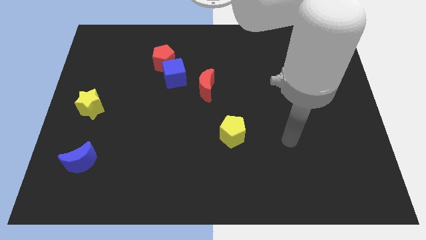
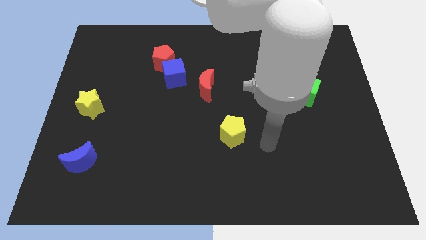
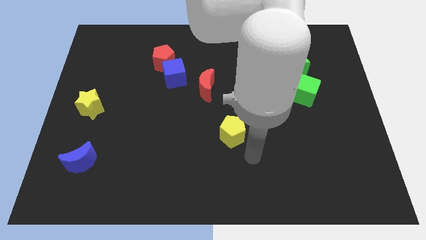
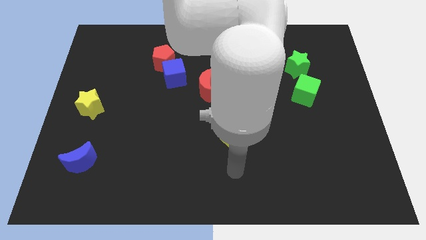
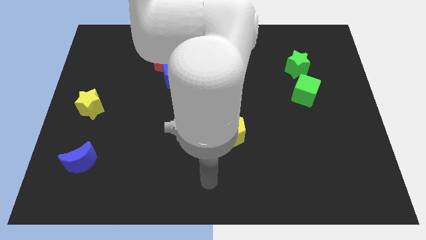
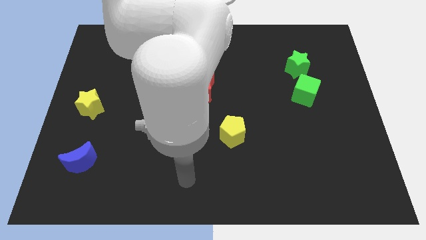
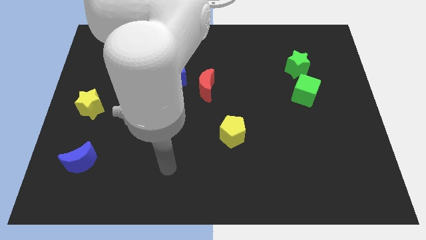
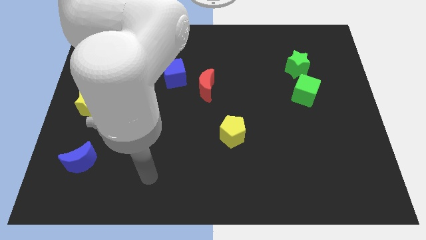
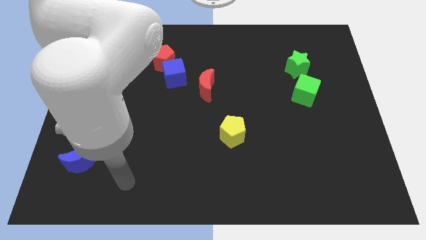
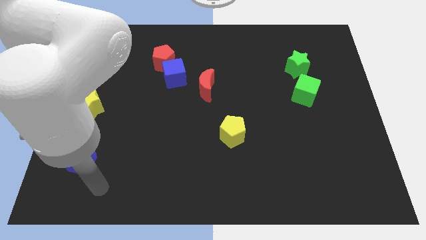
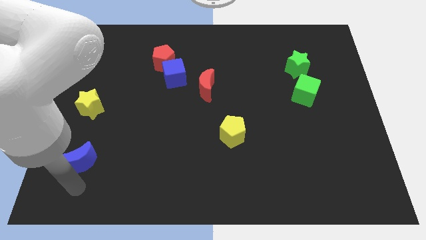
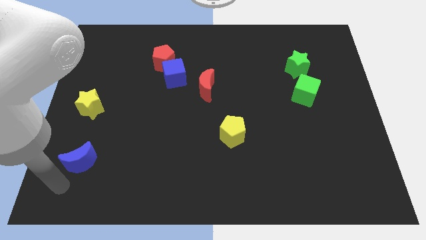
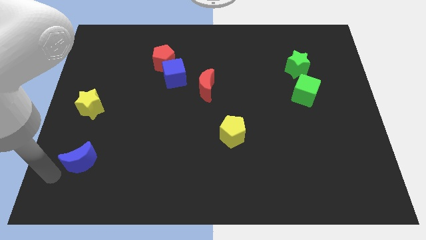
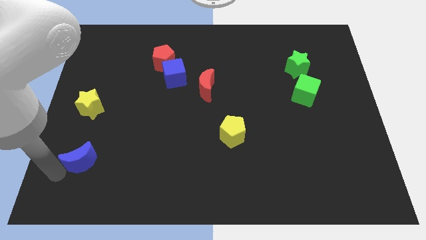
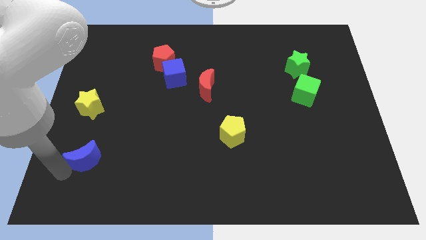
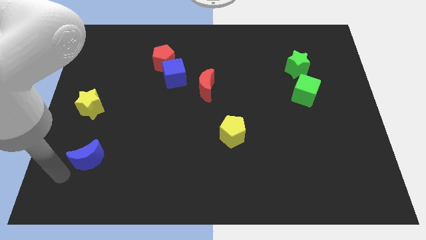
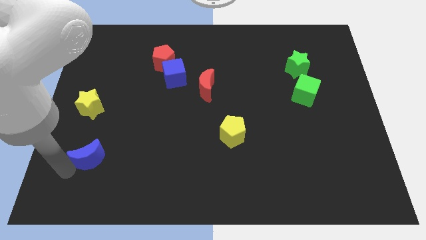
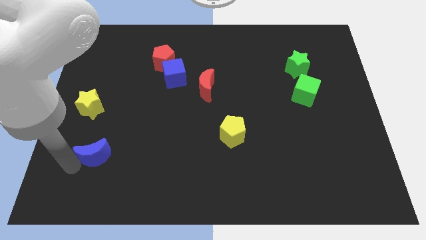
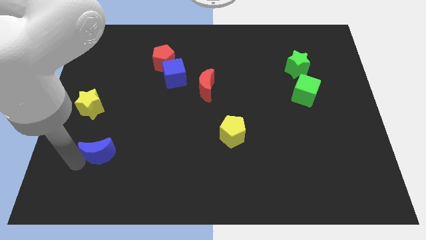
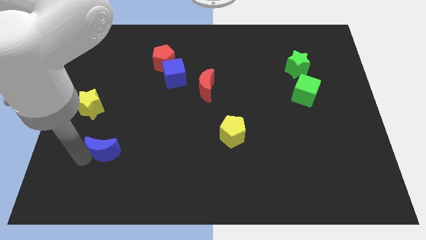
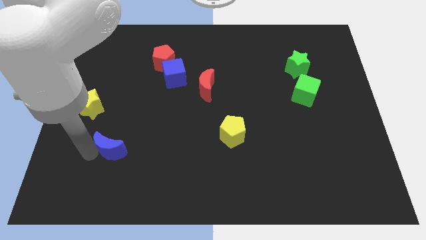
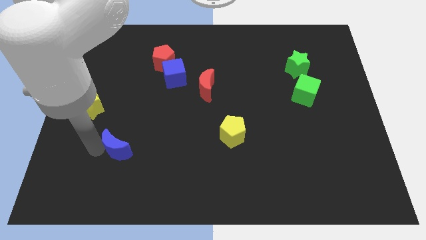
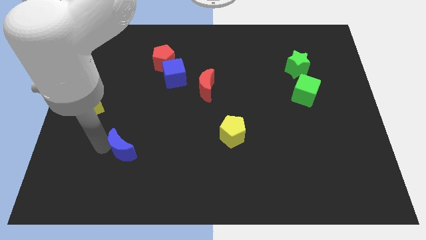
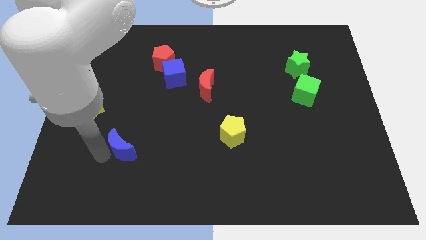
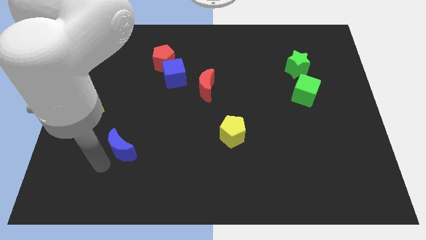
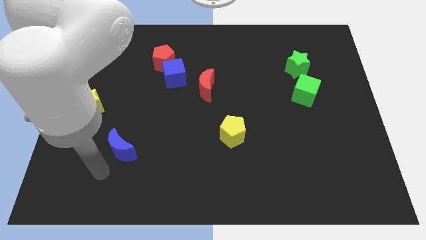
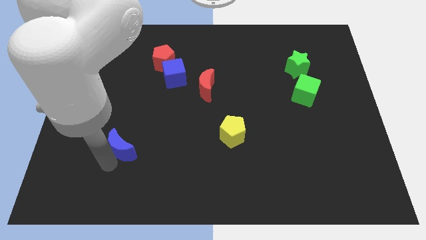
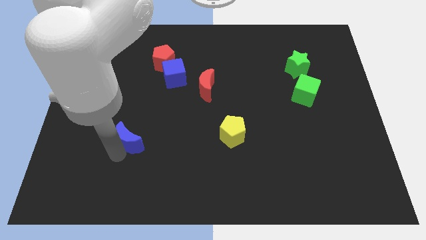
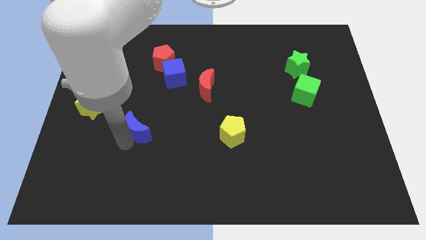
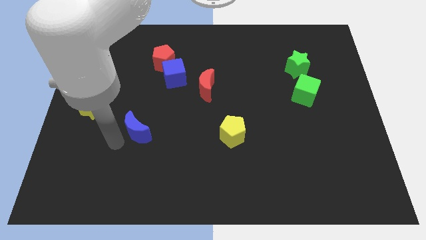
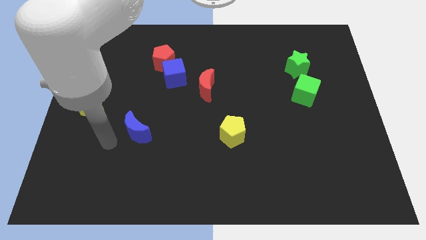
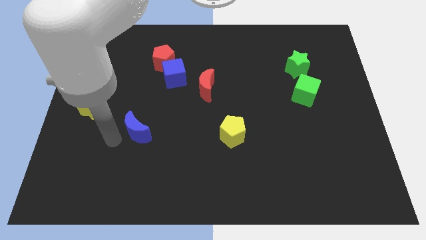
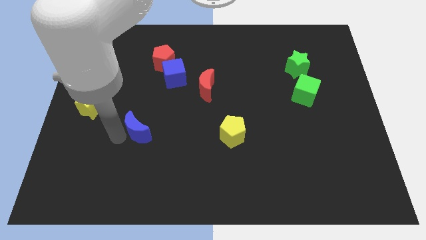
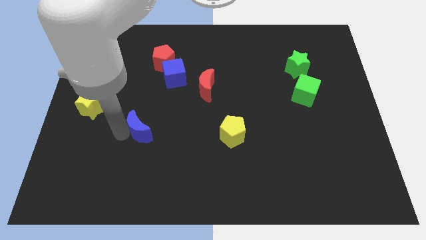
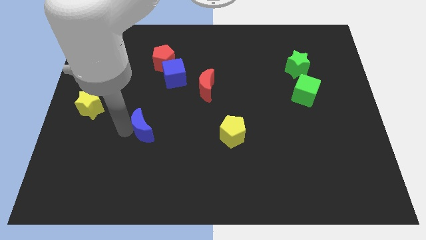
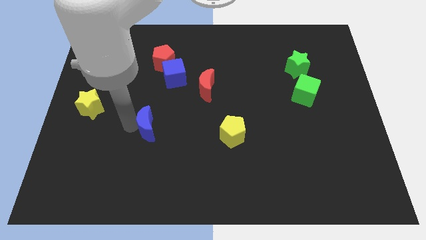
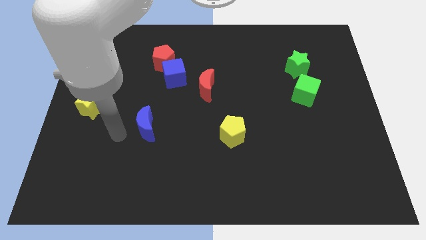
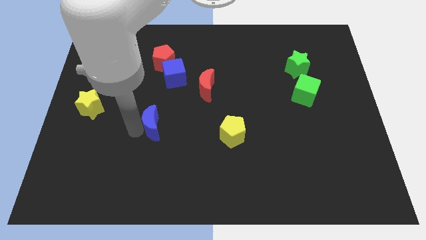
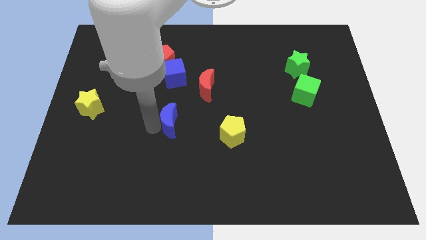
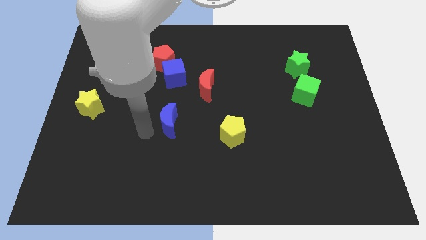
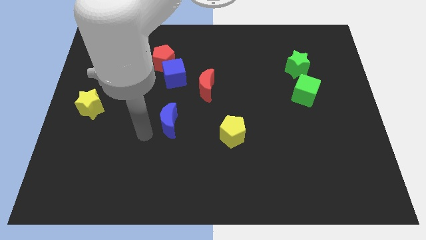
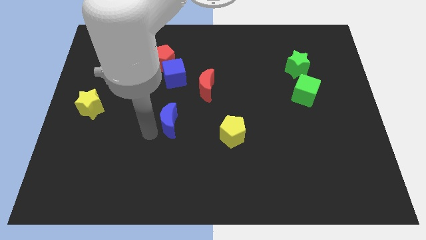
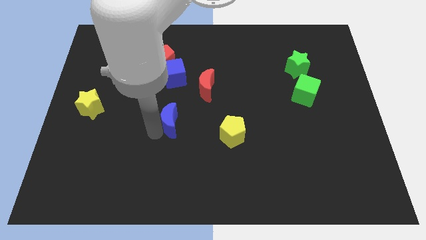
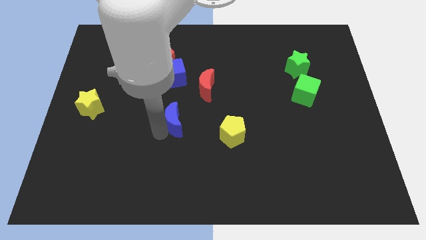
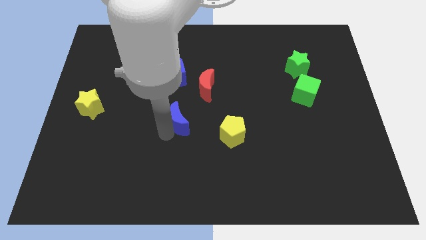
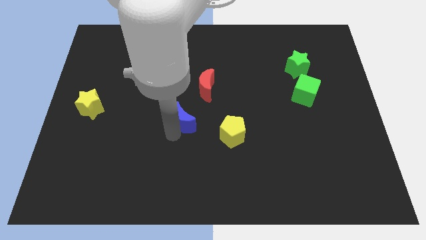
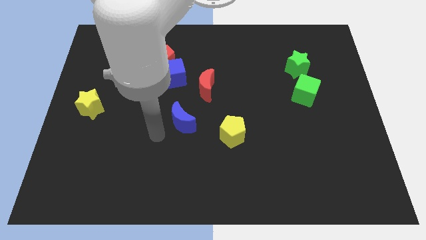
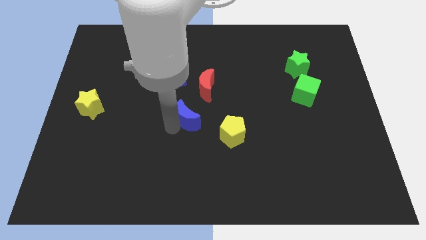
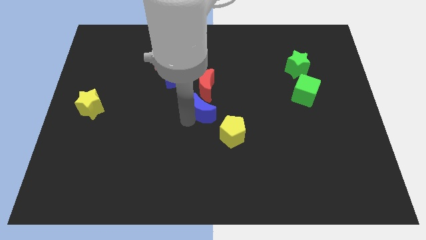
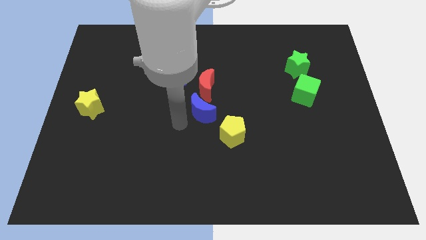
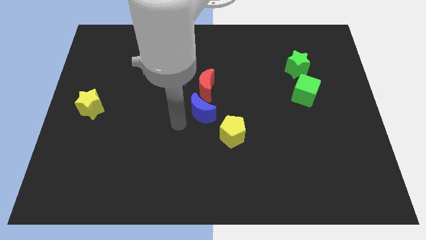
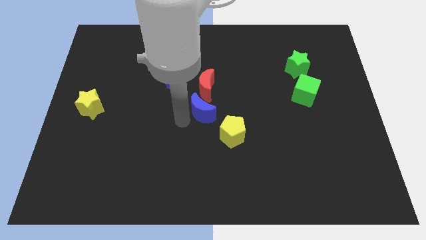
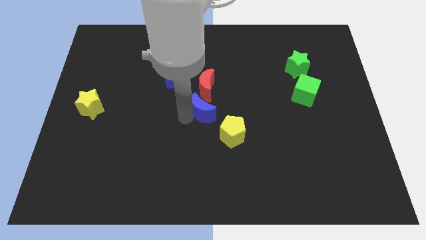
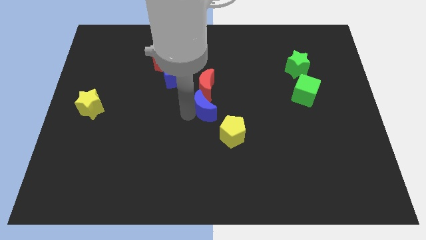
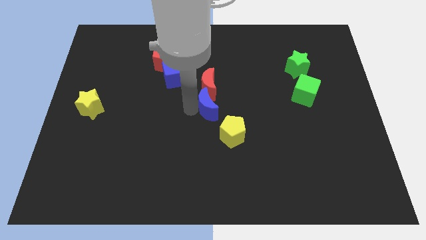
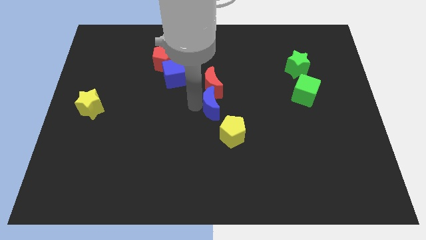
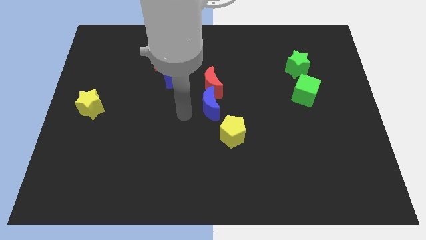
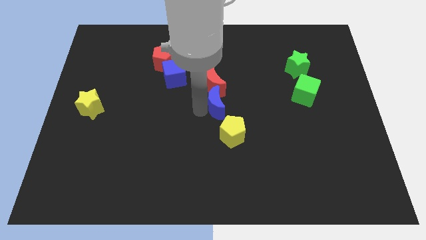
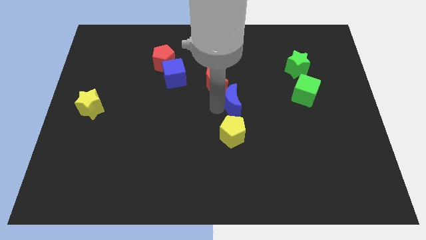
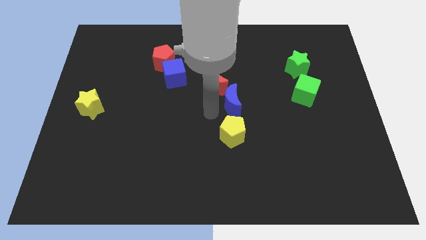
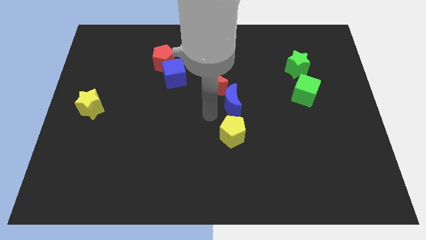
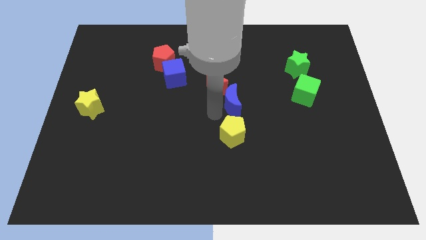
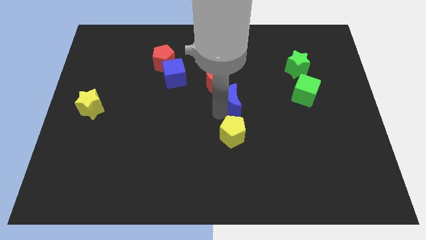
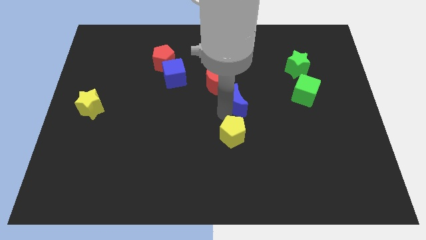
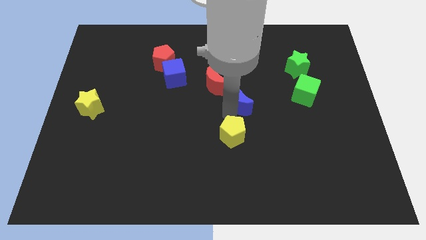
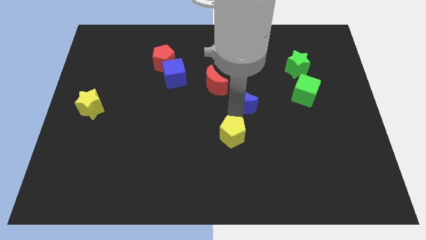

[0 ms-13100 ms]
push the blue moon left of the green cube
